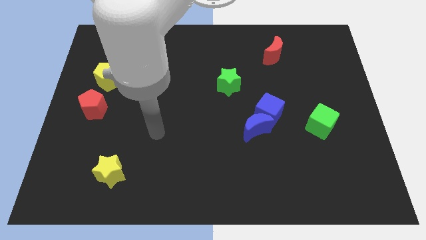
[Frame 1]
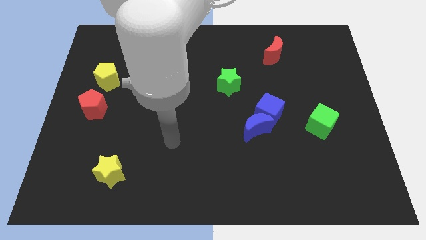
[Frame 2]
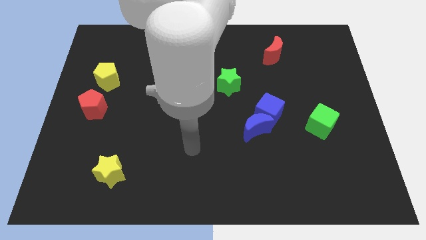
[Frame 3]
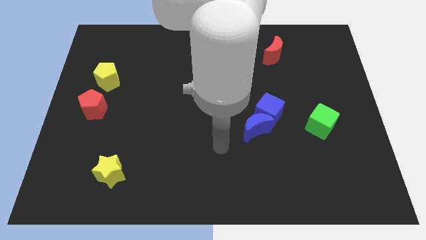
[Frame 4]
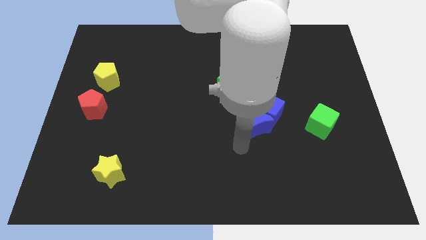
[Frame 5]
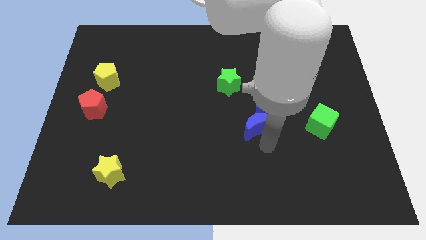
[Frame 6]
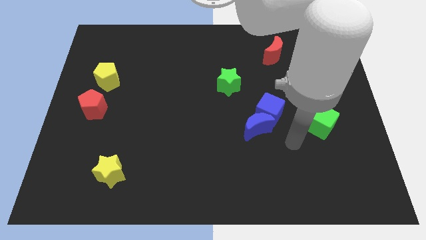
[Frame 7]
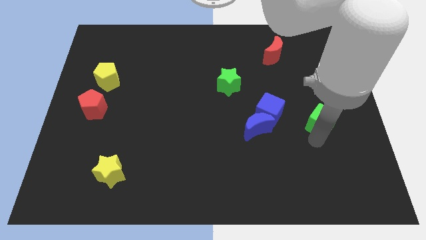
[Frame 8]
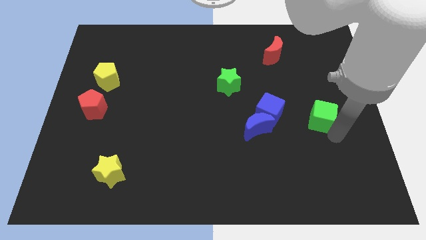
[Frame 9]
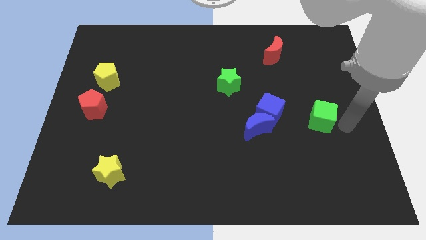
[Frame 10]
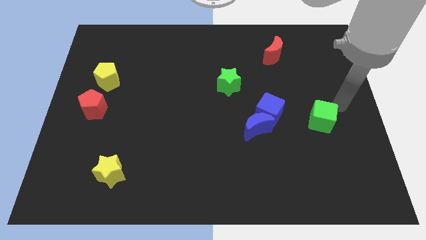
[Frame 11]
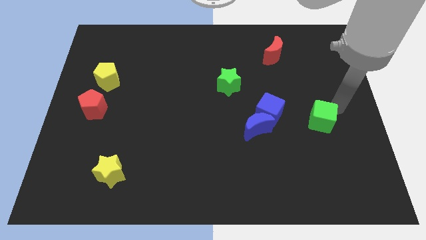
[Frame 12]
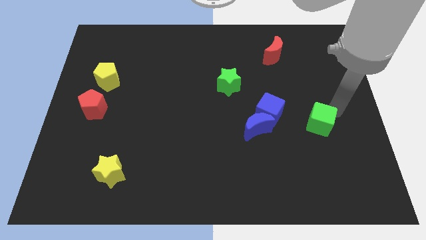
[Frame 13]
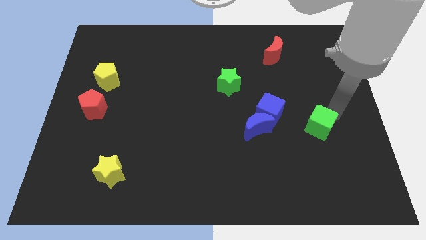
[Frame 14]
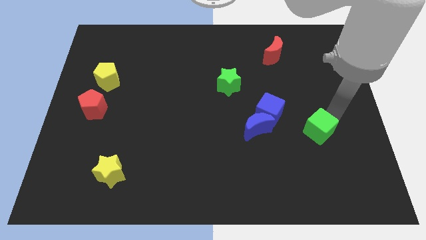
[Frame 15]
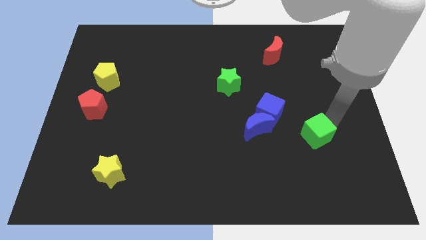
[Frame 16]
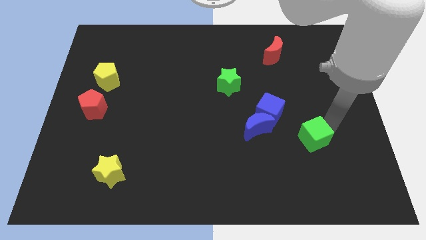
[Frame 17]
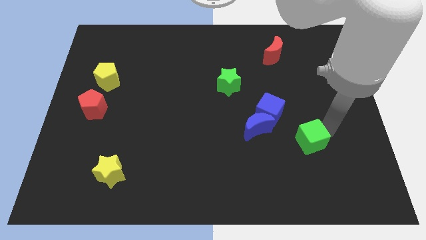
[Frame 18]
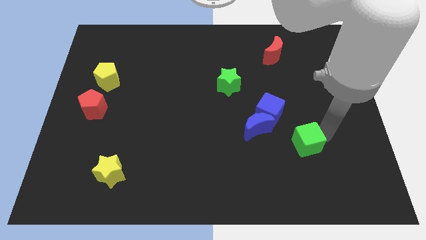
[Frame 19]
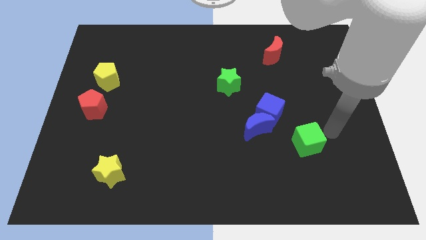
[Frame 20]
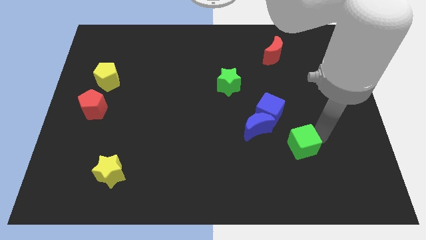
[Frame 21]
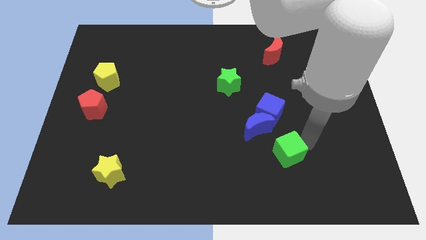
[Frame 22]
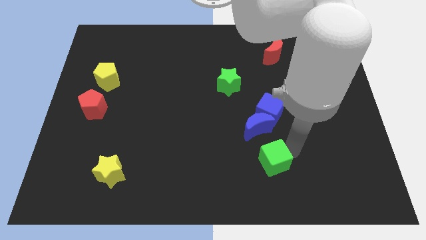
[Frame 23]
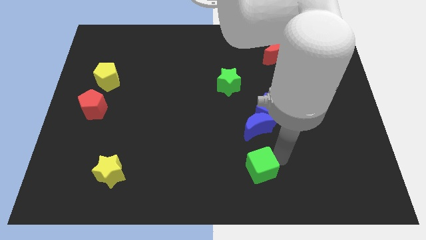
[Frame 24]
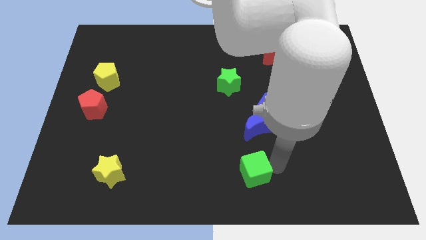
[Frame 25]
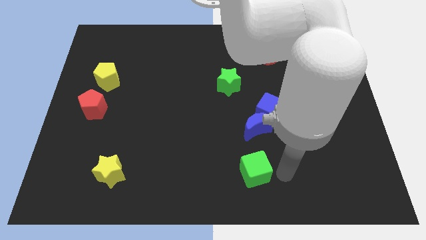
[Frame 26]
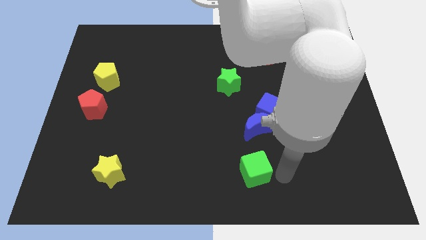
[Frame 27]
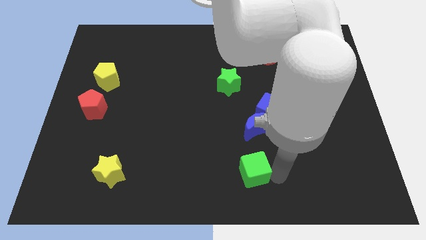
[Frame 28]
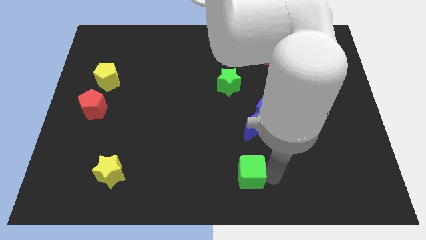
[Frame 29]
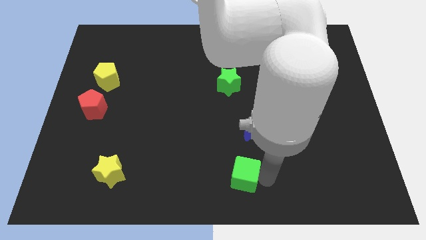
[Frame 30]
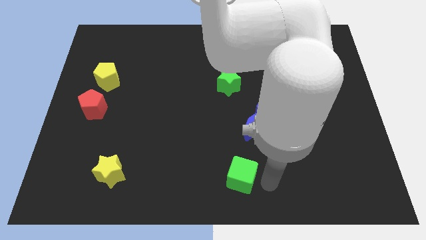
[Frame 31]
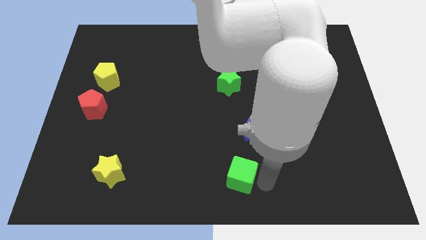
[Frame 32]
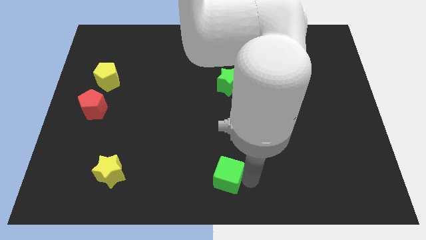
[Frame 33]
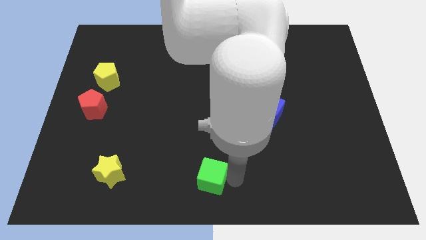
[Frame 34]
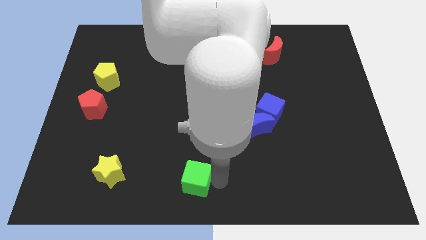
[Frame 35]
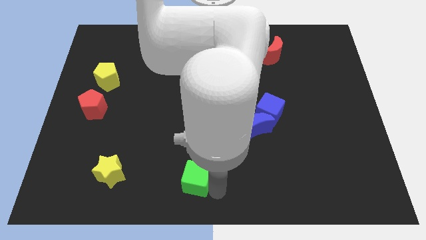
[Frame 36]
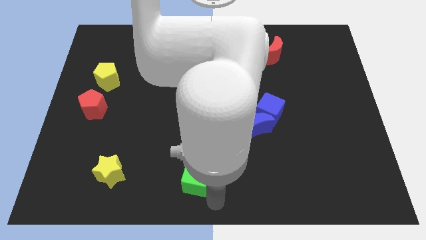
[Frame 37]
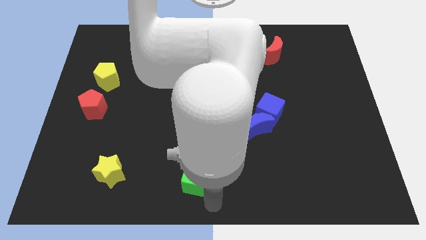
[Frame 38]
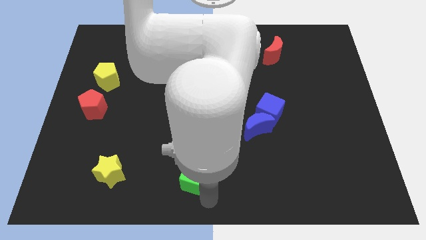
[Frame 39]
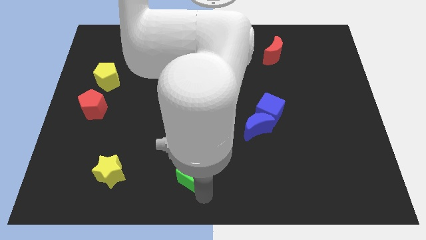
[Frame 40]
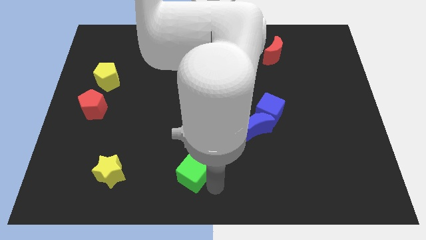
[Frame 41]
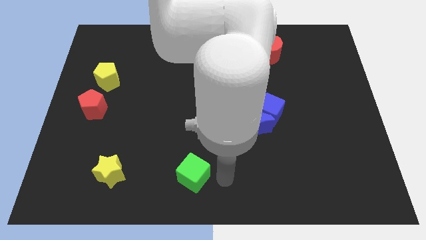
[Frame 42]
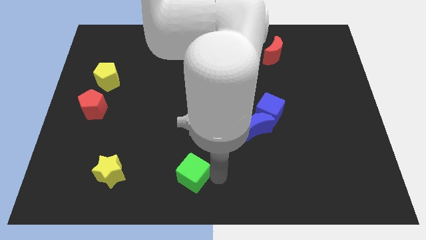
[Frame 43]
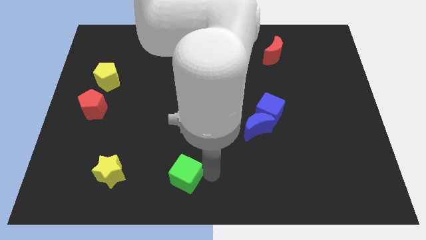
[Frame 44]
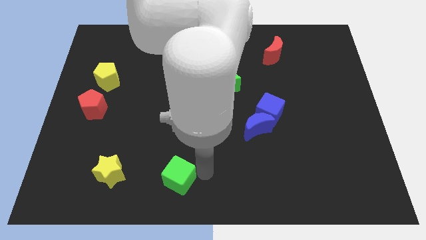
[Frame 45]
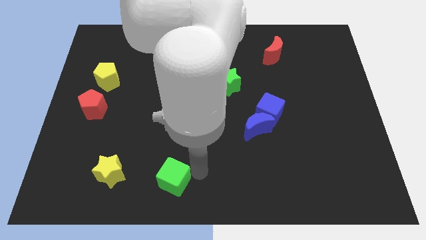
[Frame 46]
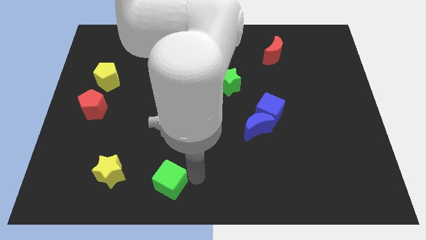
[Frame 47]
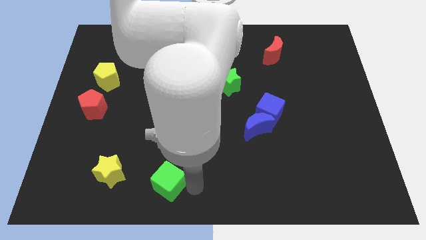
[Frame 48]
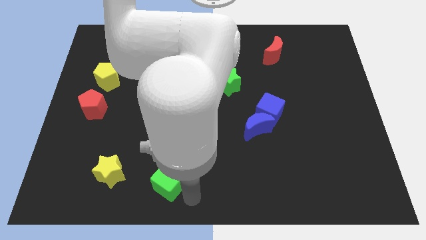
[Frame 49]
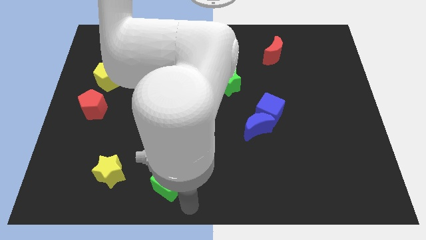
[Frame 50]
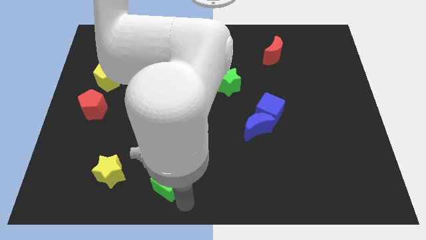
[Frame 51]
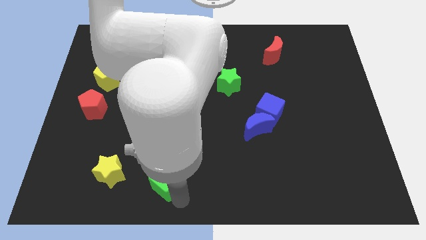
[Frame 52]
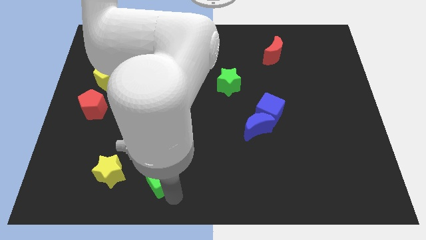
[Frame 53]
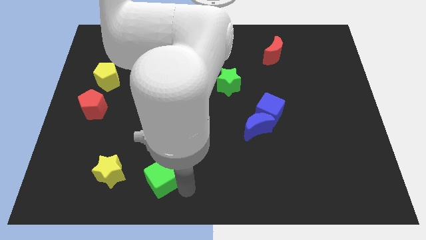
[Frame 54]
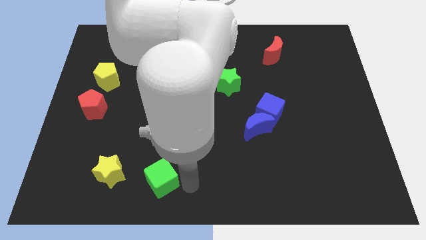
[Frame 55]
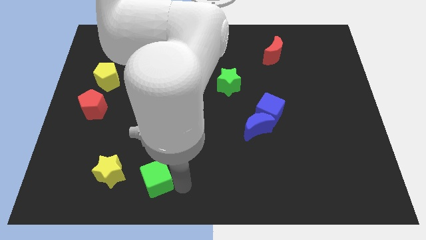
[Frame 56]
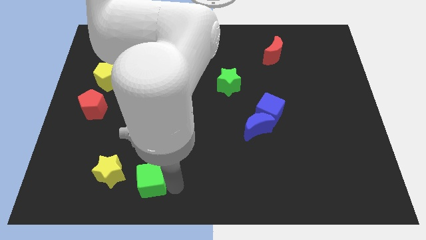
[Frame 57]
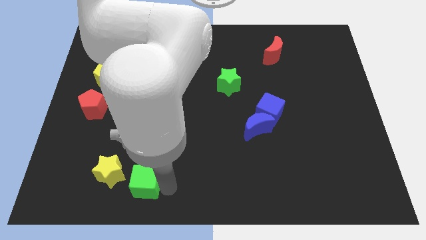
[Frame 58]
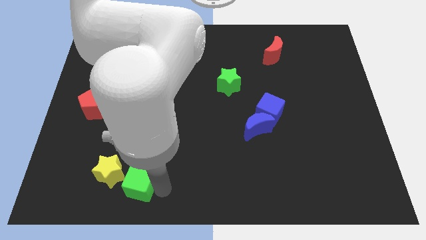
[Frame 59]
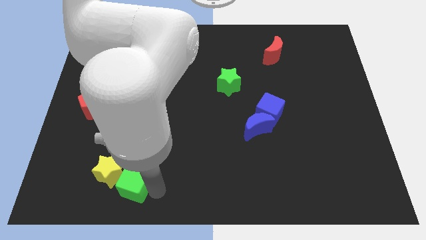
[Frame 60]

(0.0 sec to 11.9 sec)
move the green cube towards the yellow star

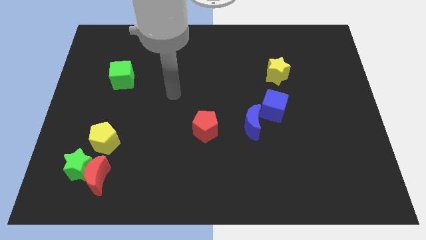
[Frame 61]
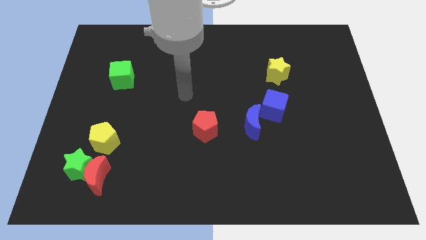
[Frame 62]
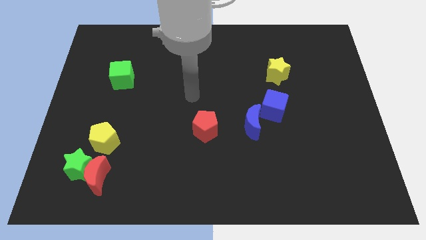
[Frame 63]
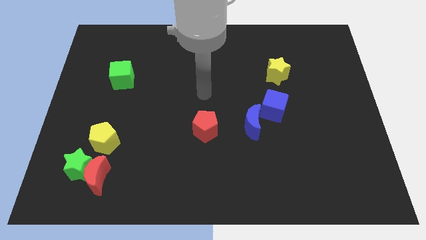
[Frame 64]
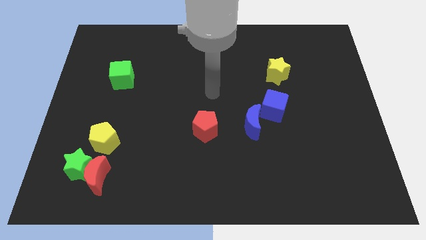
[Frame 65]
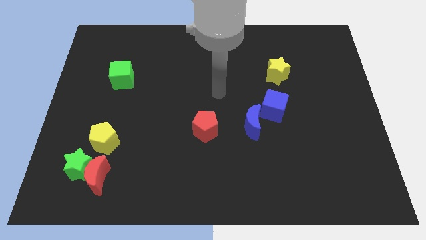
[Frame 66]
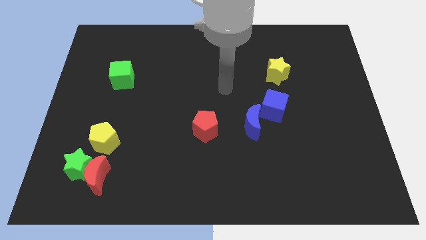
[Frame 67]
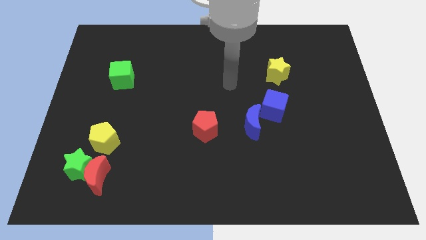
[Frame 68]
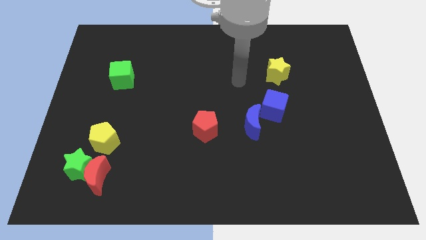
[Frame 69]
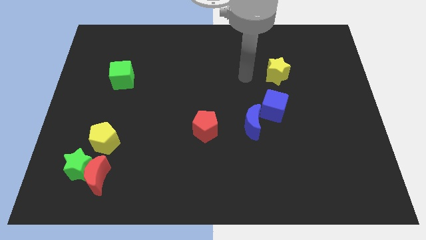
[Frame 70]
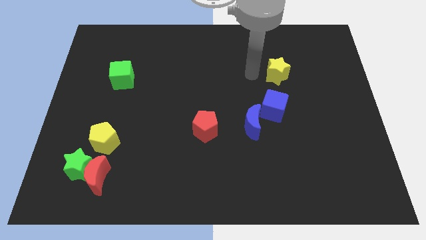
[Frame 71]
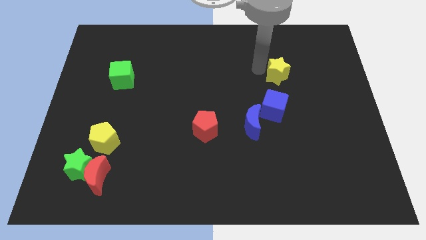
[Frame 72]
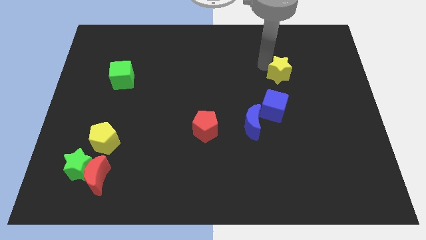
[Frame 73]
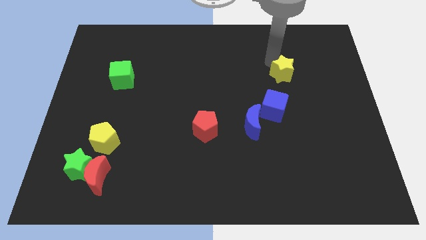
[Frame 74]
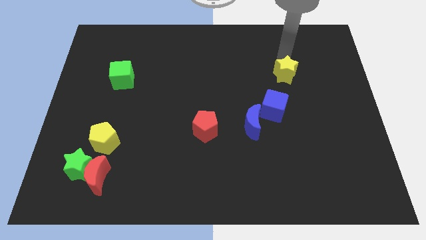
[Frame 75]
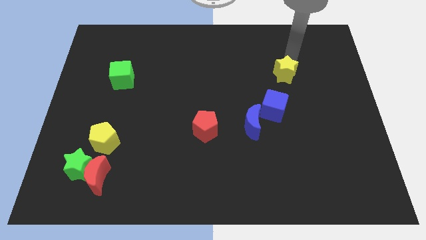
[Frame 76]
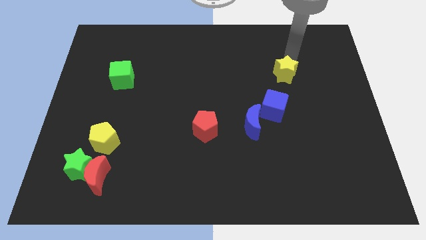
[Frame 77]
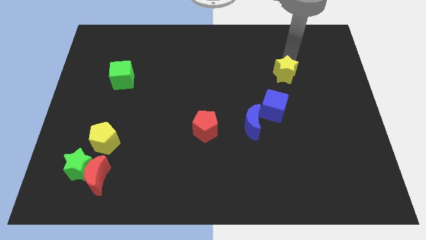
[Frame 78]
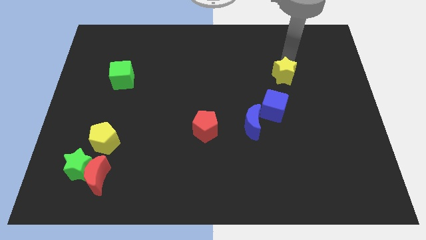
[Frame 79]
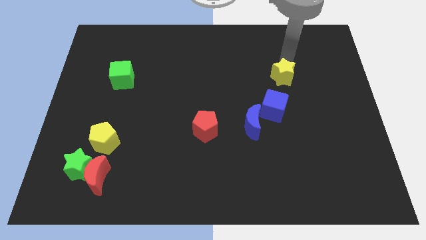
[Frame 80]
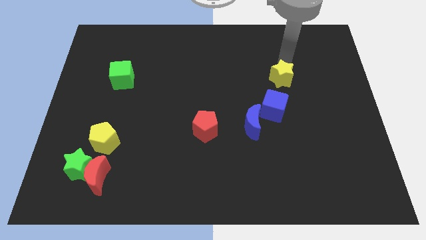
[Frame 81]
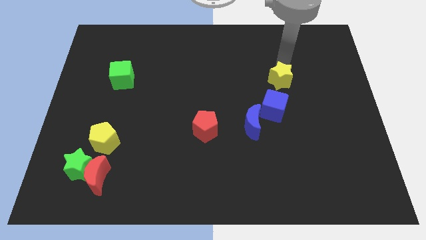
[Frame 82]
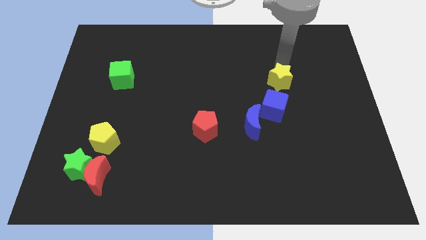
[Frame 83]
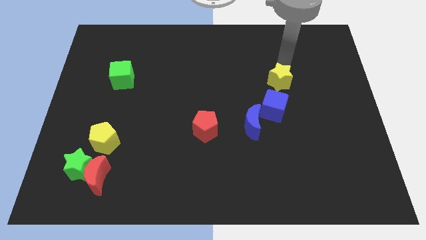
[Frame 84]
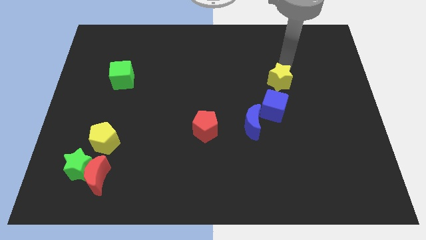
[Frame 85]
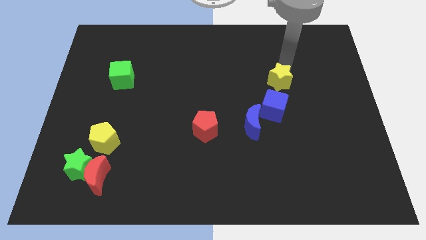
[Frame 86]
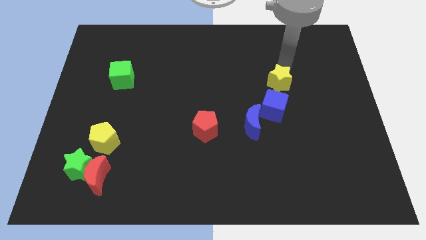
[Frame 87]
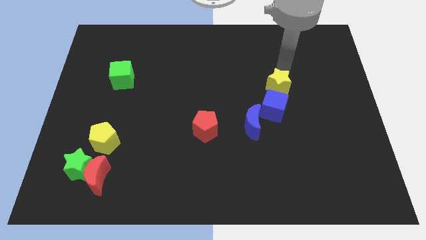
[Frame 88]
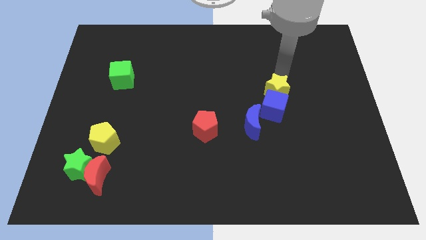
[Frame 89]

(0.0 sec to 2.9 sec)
move the yellow star towards the blue cube
